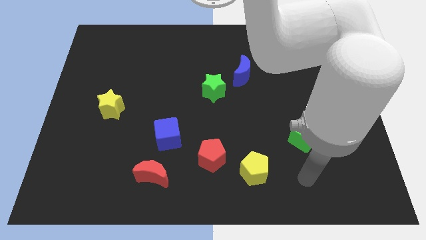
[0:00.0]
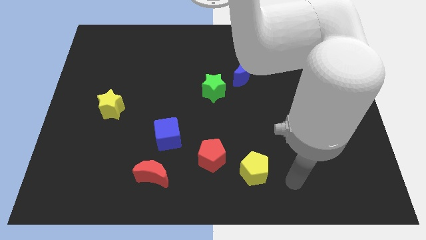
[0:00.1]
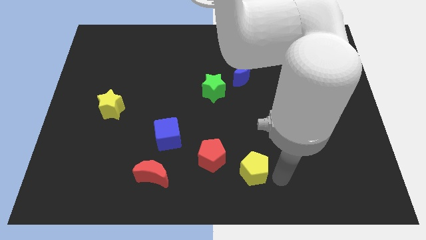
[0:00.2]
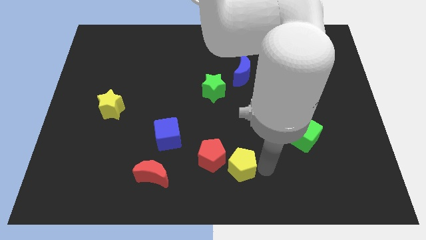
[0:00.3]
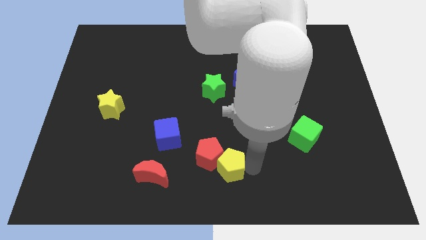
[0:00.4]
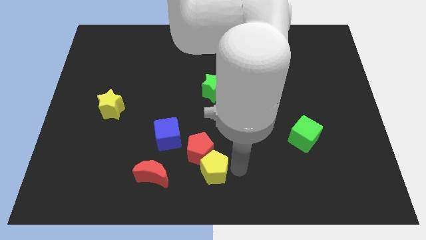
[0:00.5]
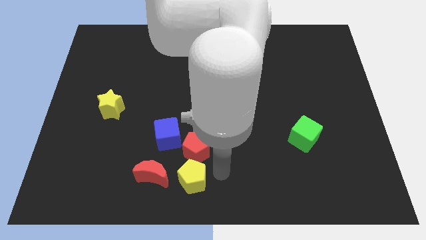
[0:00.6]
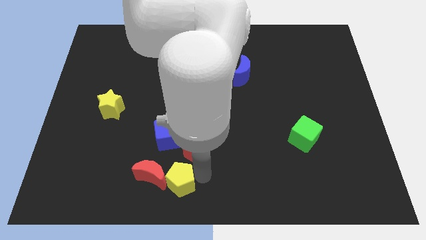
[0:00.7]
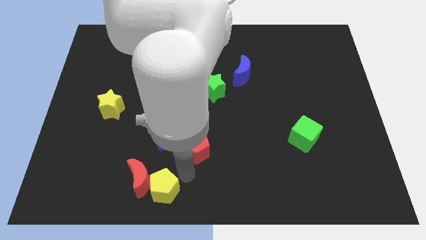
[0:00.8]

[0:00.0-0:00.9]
move the red pentagon away from the yellow pentagon

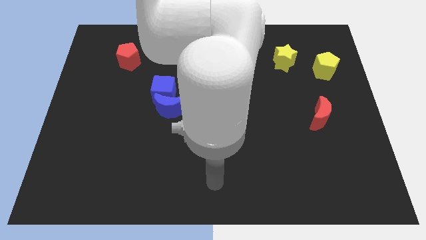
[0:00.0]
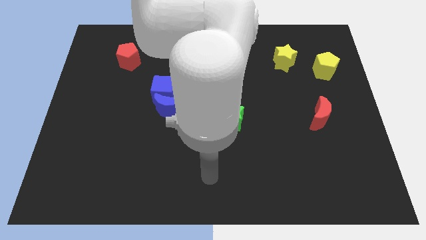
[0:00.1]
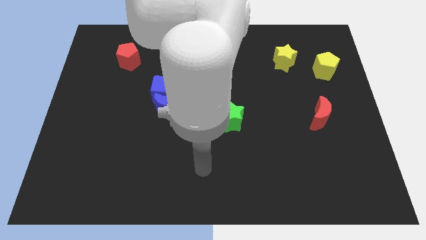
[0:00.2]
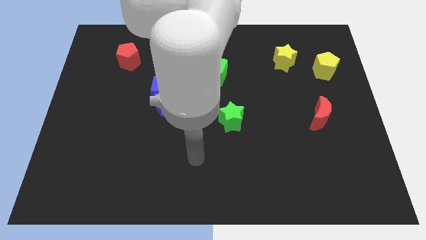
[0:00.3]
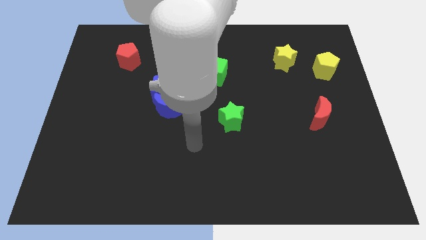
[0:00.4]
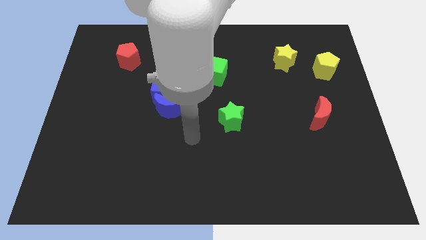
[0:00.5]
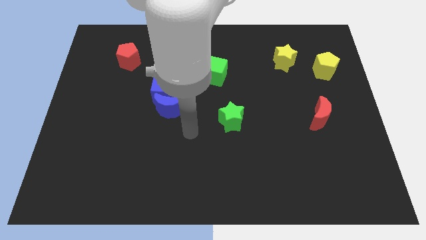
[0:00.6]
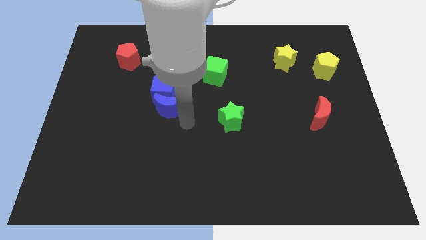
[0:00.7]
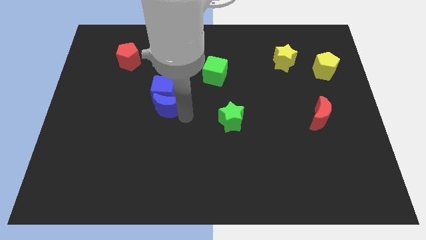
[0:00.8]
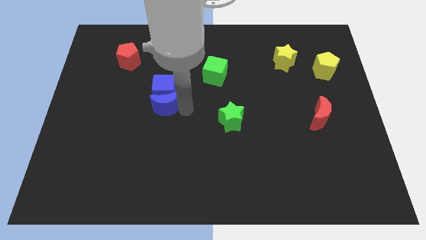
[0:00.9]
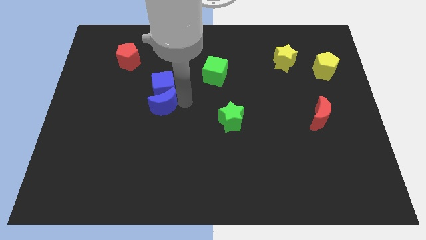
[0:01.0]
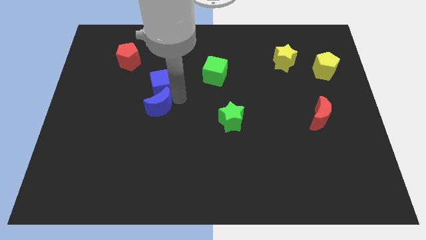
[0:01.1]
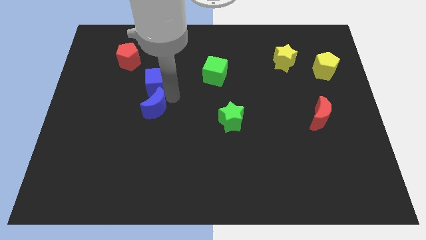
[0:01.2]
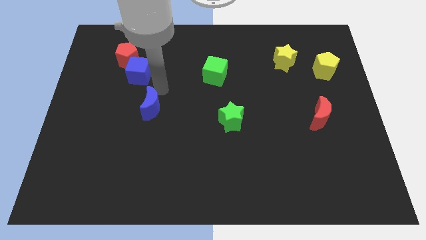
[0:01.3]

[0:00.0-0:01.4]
separate the blue moon from the blue cube

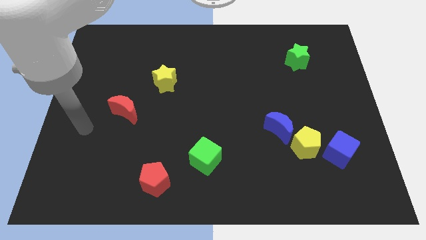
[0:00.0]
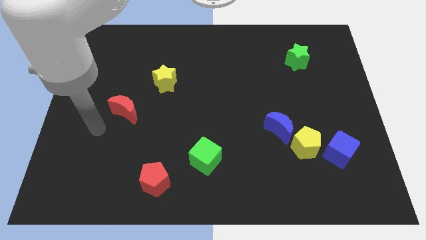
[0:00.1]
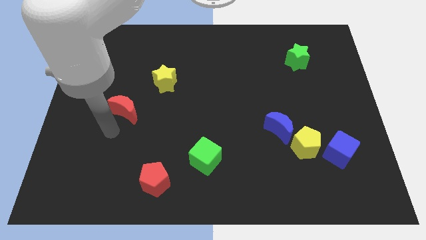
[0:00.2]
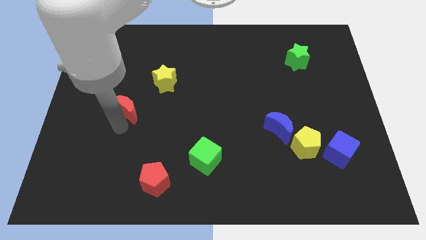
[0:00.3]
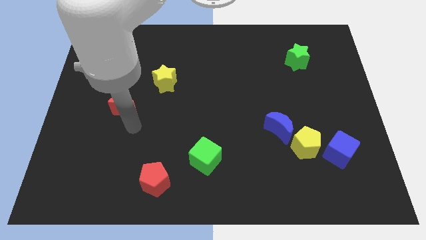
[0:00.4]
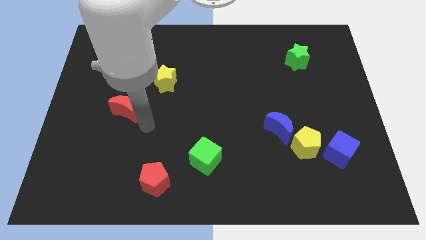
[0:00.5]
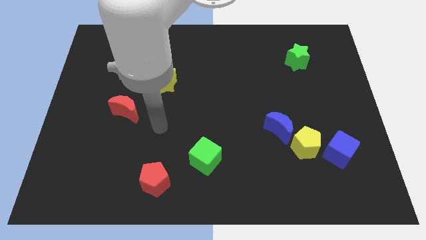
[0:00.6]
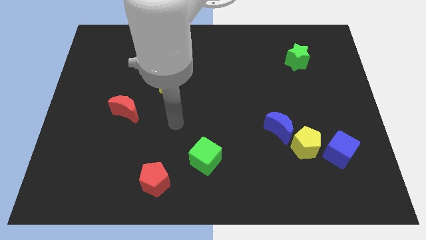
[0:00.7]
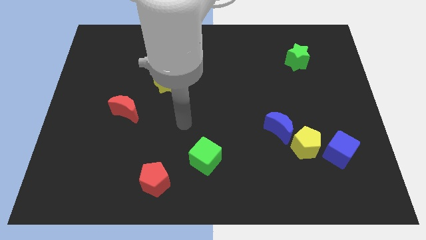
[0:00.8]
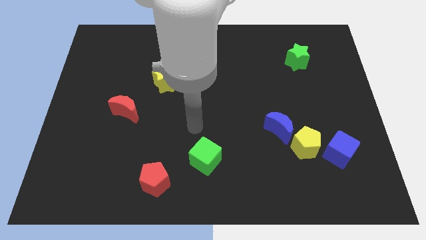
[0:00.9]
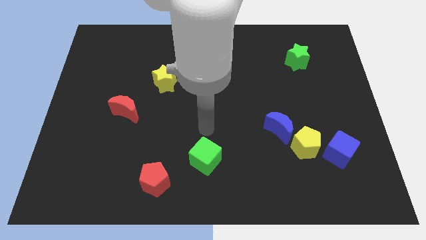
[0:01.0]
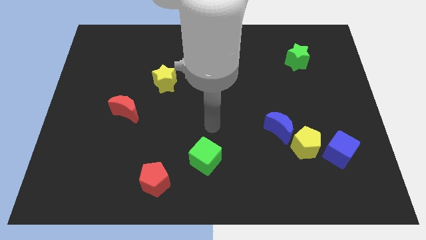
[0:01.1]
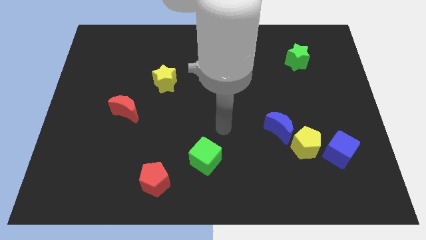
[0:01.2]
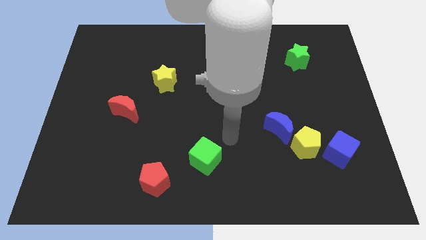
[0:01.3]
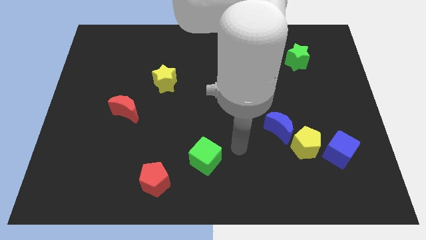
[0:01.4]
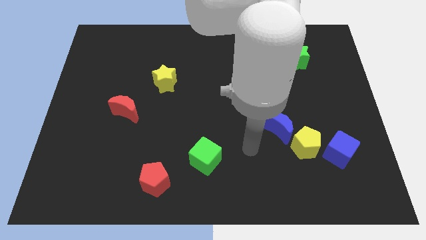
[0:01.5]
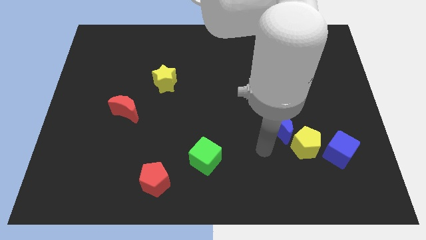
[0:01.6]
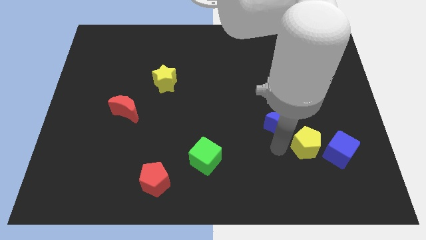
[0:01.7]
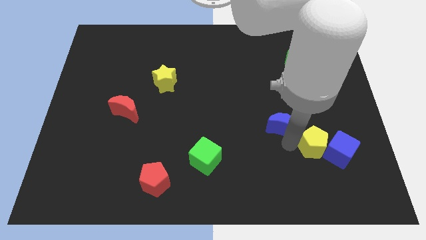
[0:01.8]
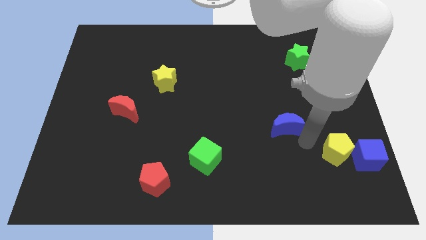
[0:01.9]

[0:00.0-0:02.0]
move the blue moon away from the yellow pentagon

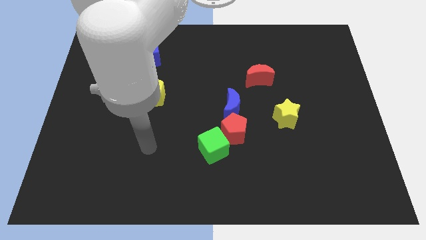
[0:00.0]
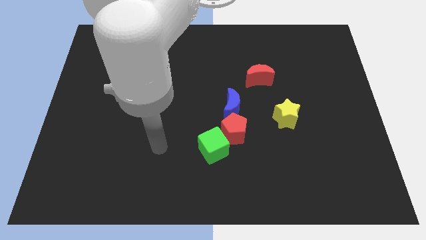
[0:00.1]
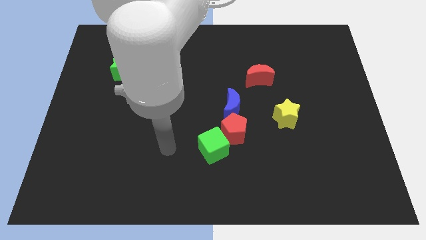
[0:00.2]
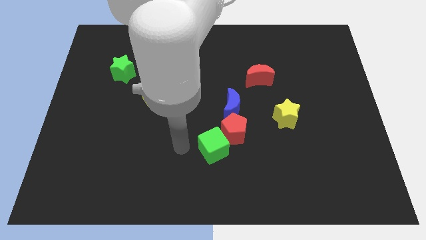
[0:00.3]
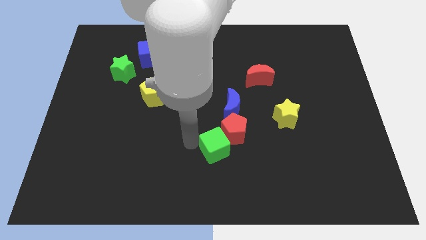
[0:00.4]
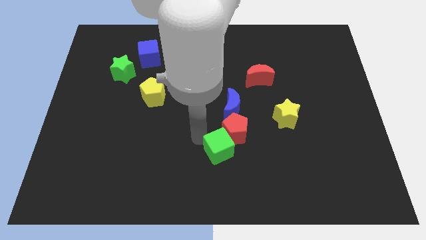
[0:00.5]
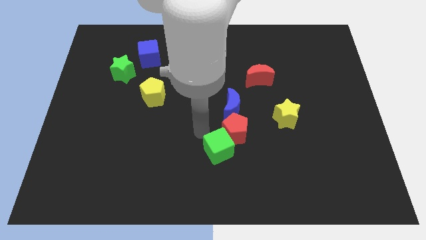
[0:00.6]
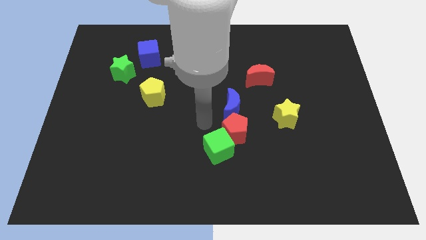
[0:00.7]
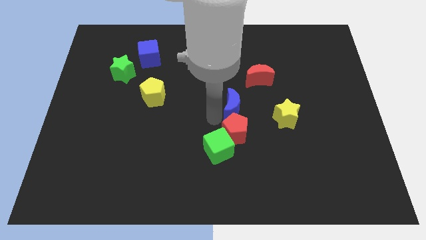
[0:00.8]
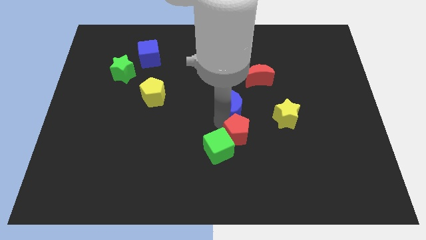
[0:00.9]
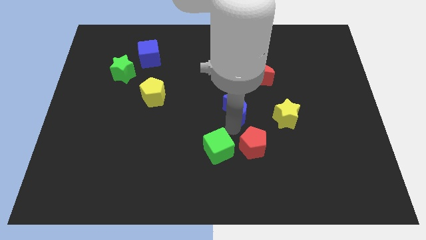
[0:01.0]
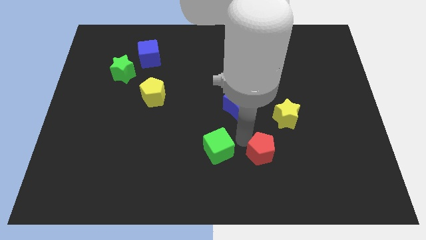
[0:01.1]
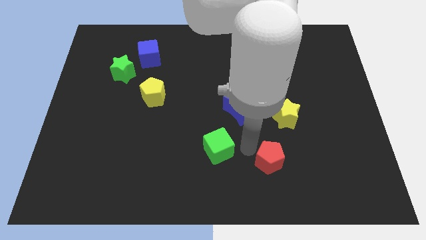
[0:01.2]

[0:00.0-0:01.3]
separate the green cube from the red pentagon

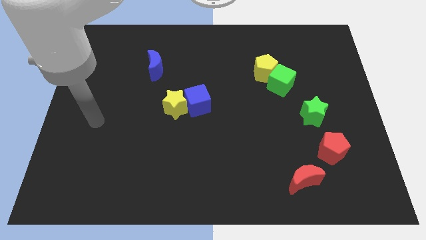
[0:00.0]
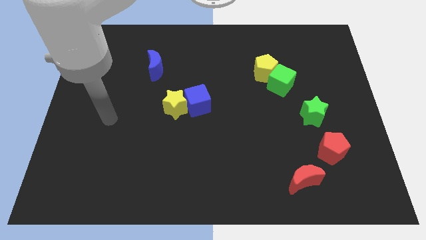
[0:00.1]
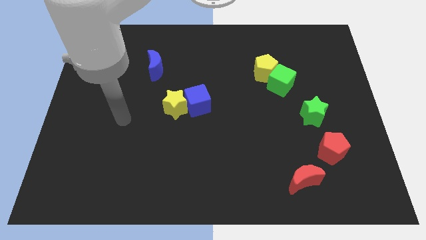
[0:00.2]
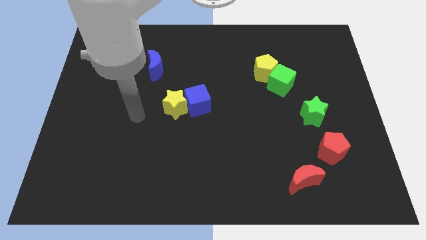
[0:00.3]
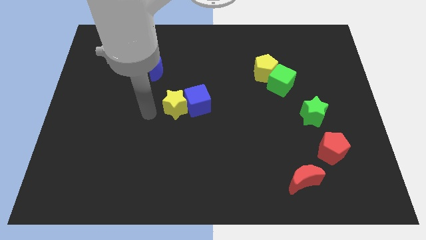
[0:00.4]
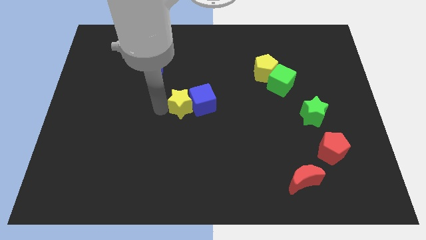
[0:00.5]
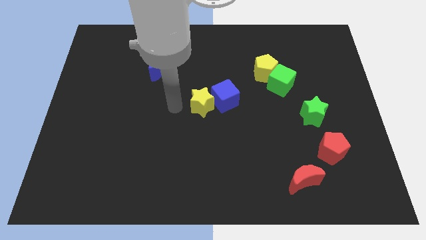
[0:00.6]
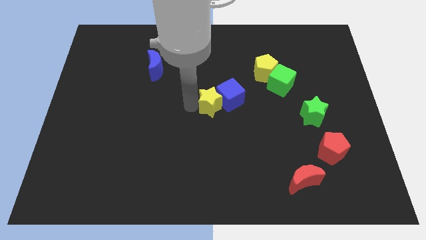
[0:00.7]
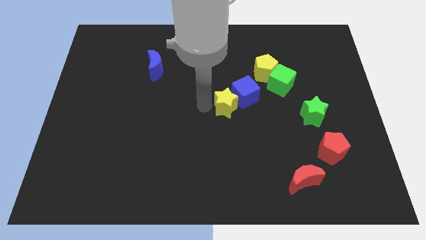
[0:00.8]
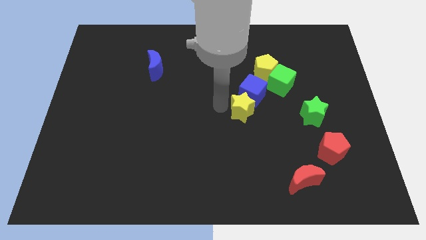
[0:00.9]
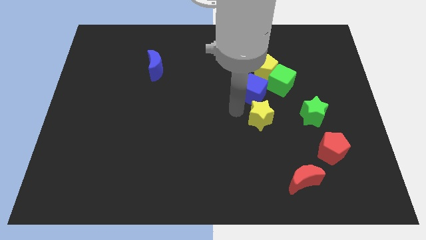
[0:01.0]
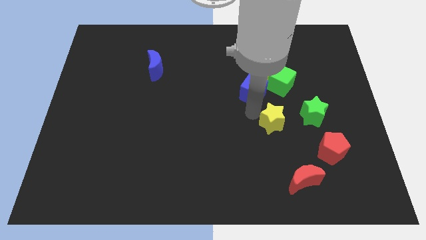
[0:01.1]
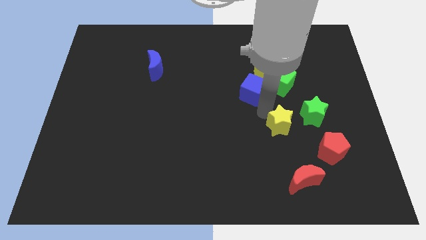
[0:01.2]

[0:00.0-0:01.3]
separate the blue cube from the yellow star

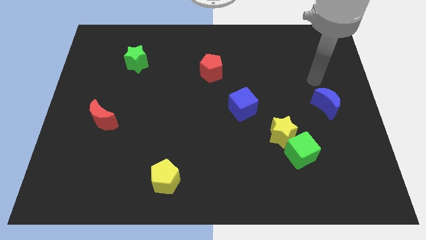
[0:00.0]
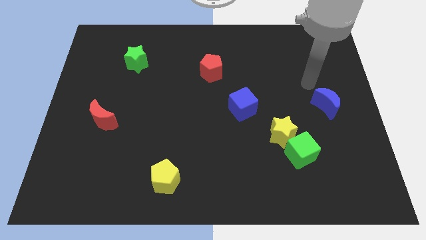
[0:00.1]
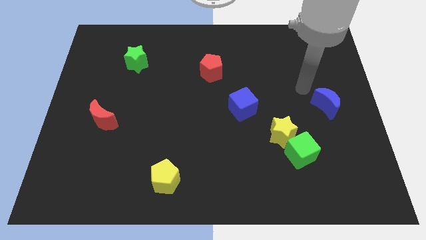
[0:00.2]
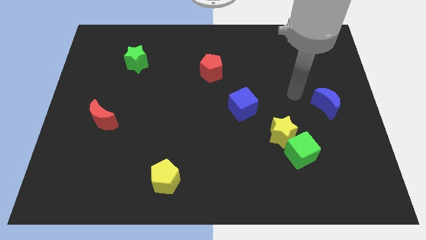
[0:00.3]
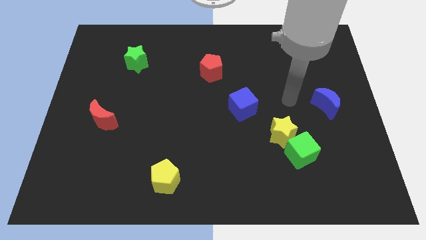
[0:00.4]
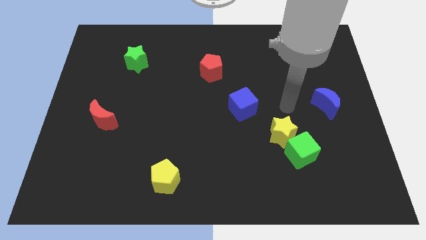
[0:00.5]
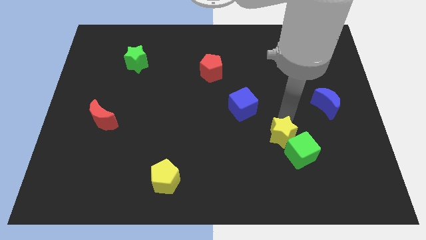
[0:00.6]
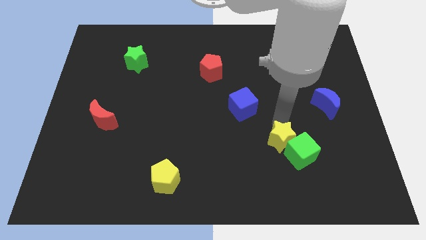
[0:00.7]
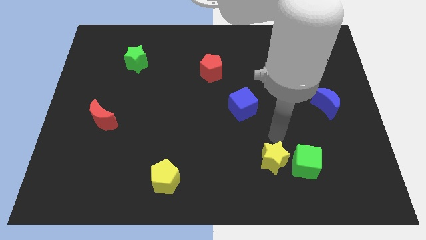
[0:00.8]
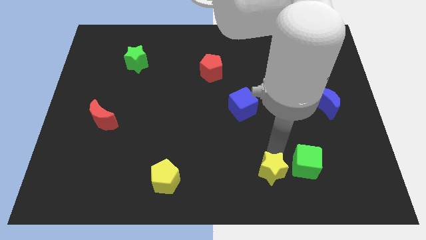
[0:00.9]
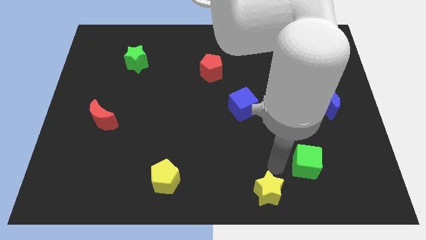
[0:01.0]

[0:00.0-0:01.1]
separate the green cube from the yellow star

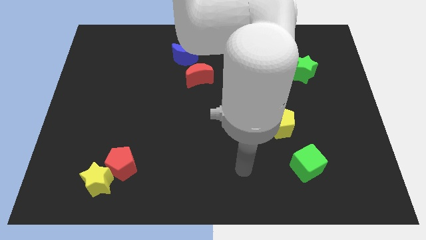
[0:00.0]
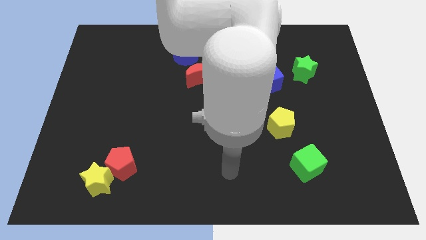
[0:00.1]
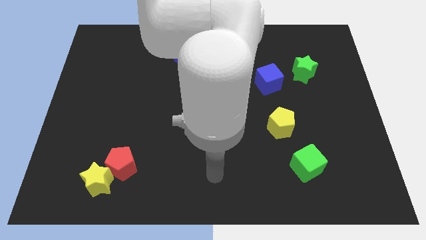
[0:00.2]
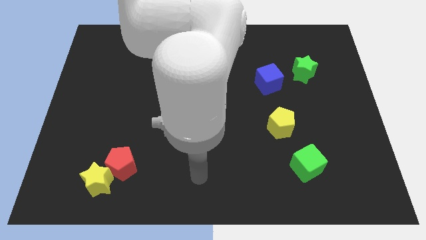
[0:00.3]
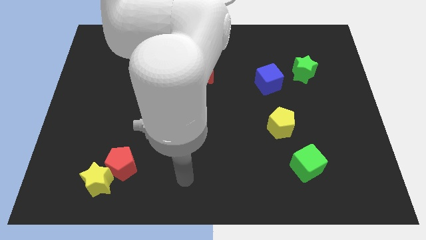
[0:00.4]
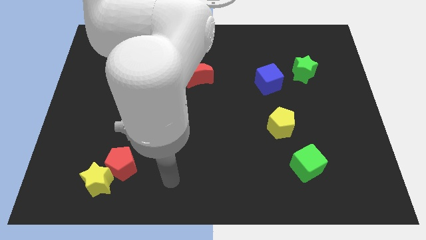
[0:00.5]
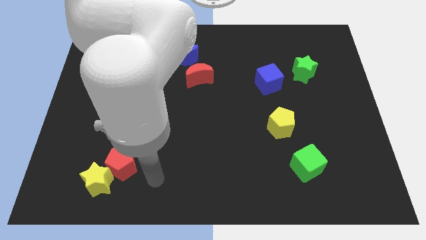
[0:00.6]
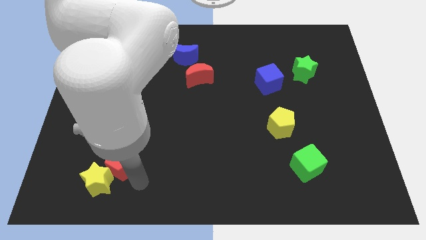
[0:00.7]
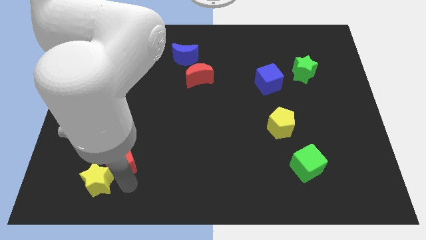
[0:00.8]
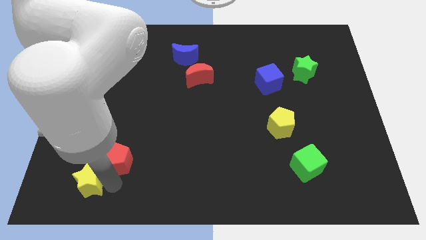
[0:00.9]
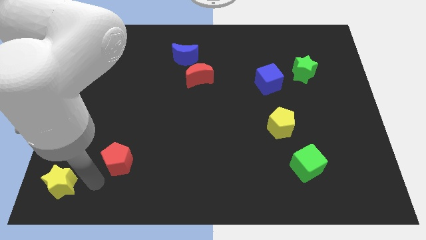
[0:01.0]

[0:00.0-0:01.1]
pull the red pentagon apart from the yellow star
